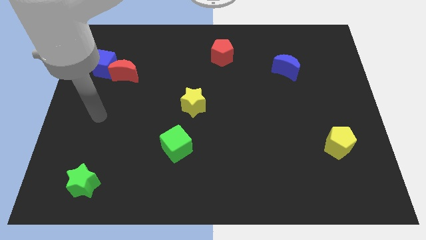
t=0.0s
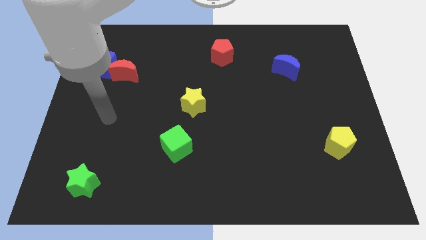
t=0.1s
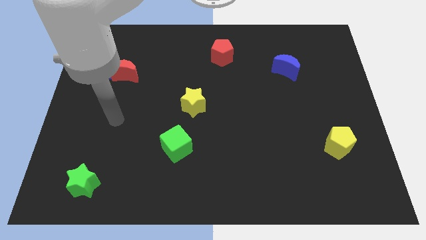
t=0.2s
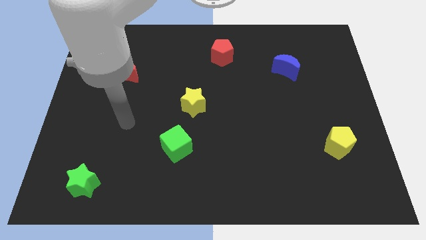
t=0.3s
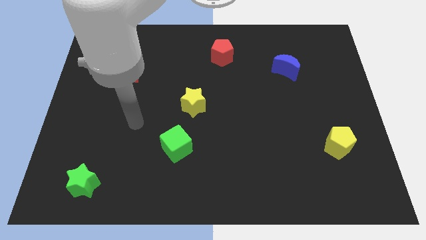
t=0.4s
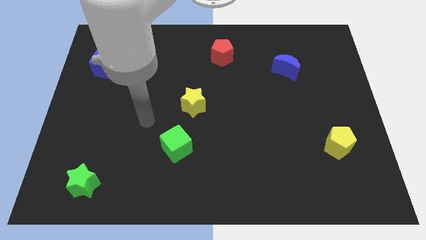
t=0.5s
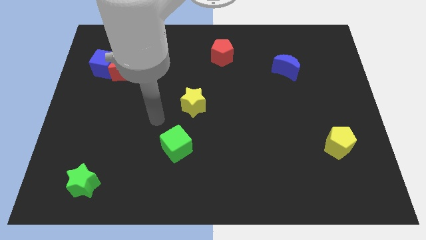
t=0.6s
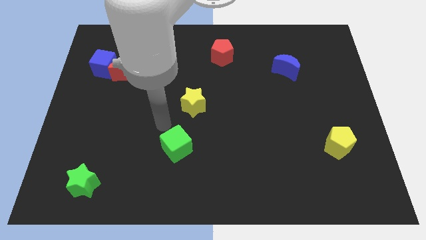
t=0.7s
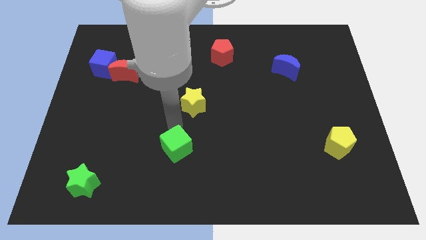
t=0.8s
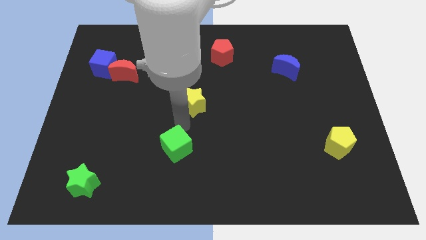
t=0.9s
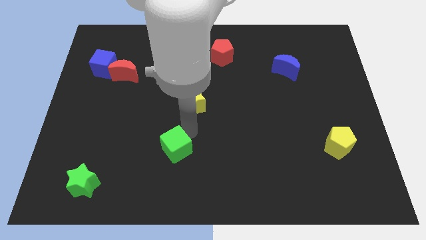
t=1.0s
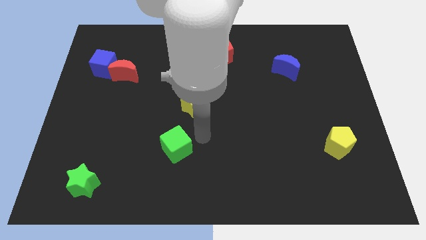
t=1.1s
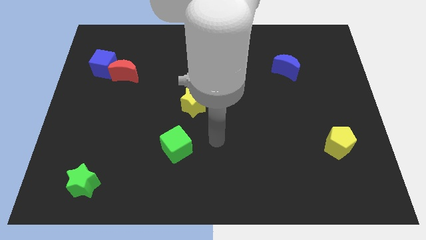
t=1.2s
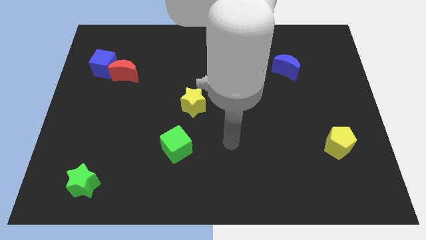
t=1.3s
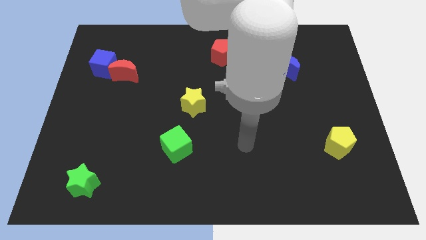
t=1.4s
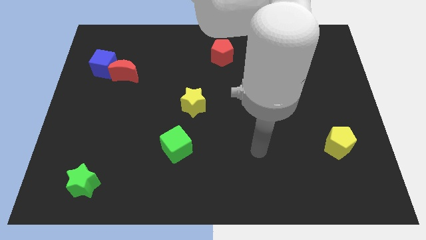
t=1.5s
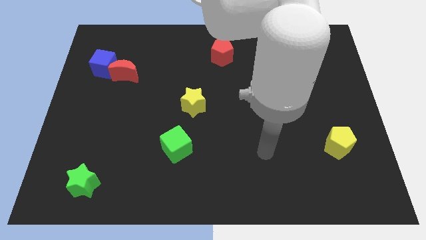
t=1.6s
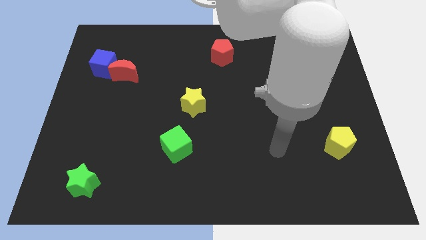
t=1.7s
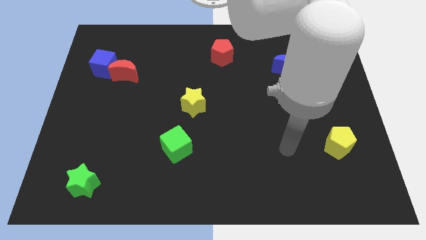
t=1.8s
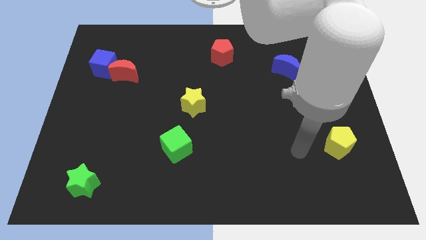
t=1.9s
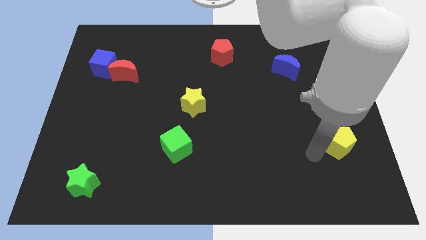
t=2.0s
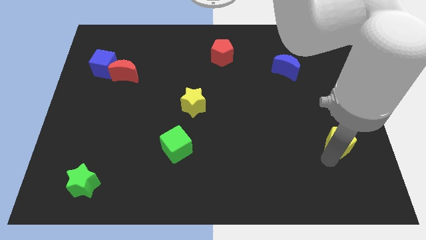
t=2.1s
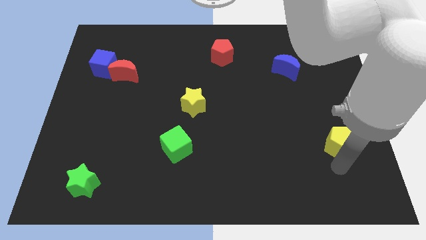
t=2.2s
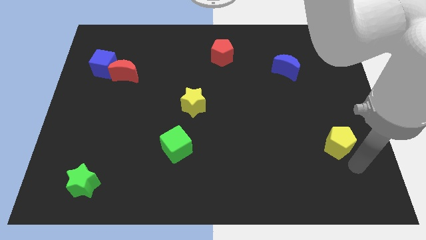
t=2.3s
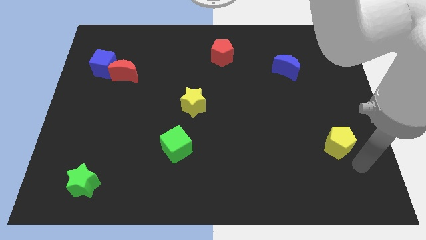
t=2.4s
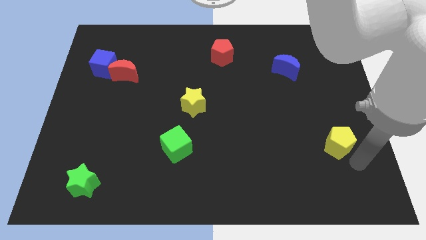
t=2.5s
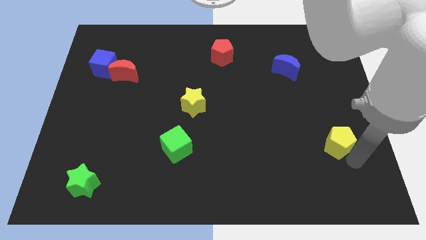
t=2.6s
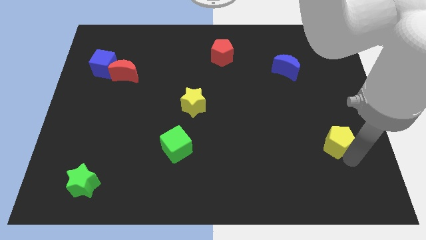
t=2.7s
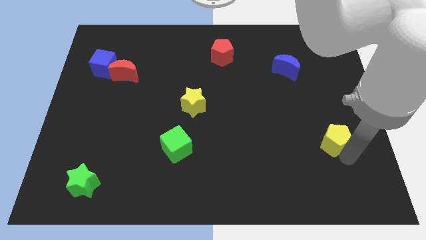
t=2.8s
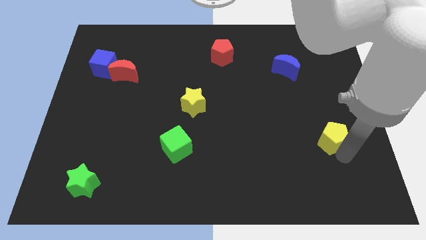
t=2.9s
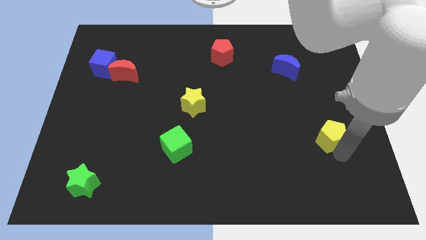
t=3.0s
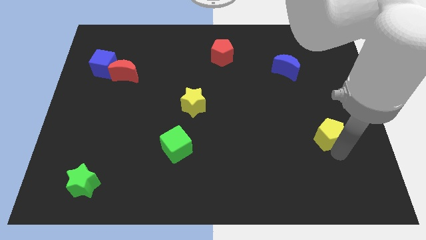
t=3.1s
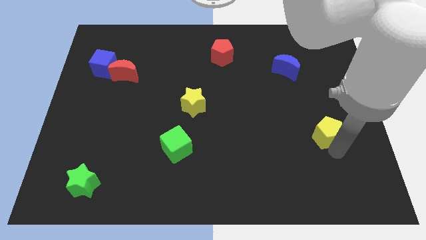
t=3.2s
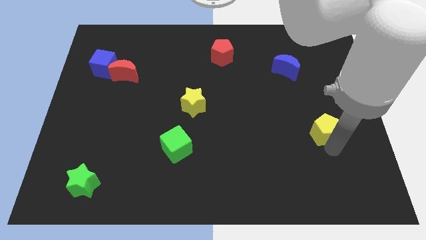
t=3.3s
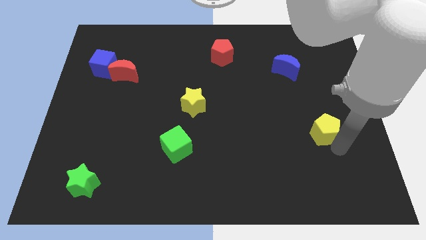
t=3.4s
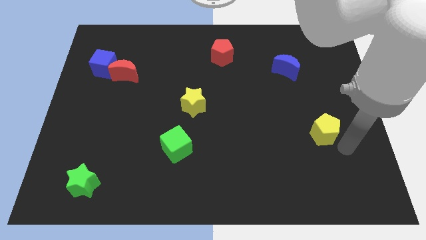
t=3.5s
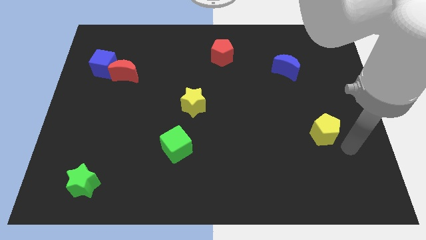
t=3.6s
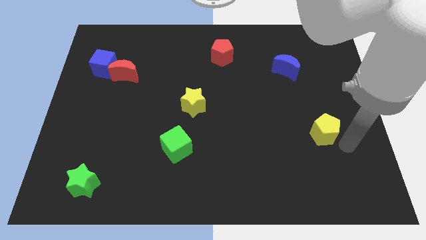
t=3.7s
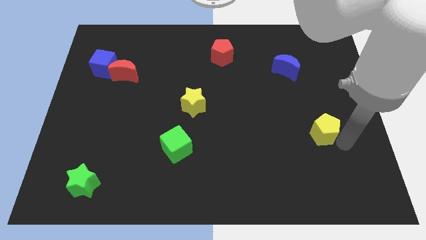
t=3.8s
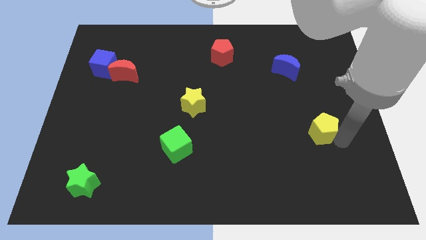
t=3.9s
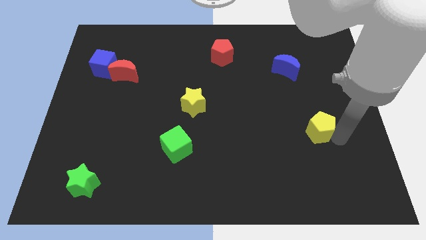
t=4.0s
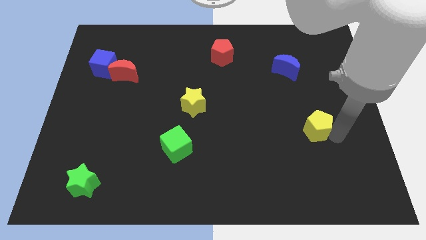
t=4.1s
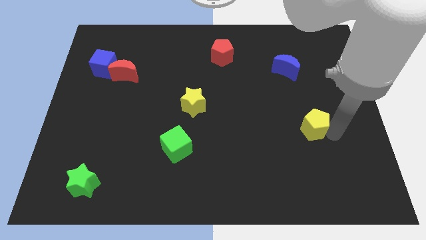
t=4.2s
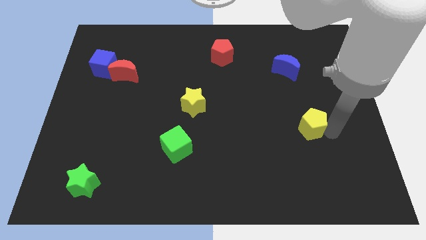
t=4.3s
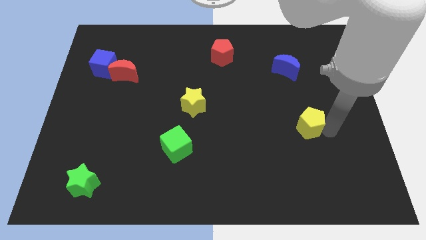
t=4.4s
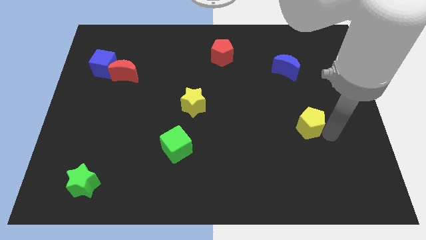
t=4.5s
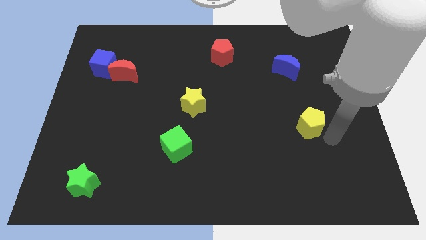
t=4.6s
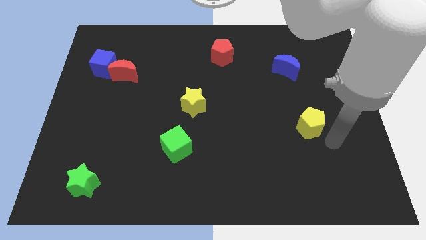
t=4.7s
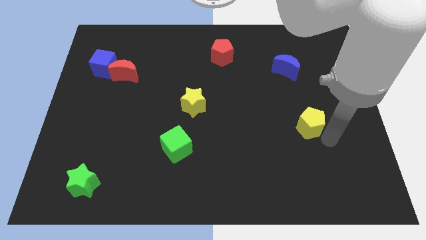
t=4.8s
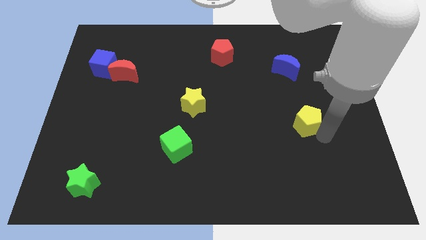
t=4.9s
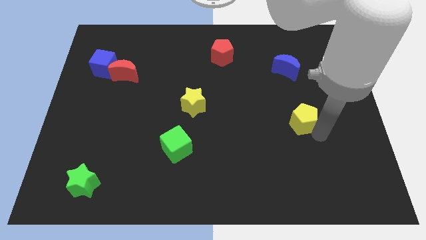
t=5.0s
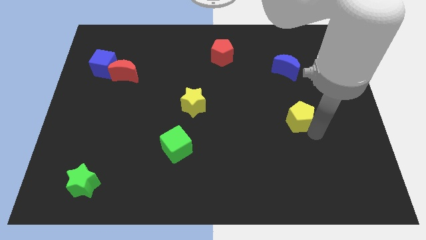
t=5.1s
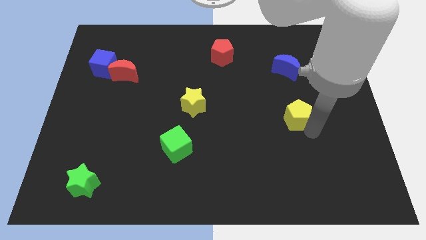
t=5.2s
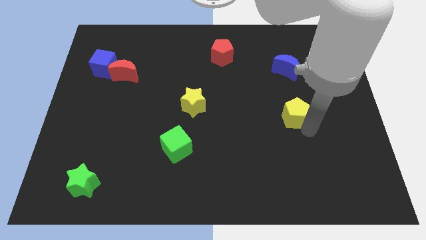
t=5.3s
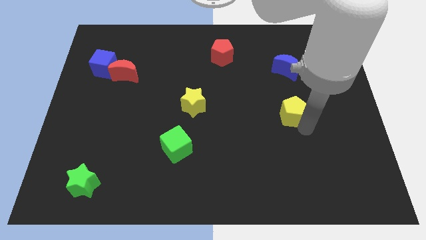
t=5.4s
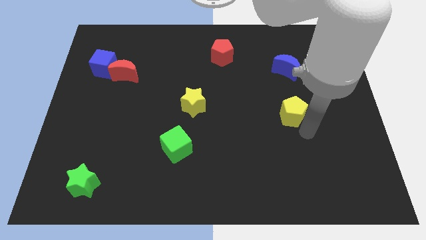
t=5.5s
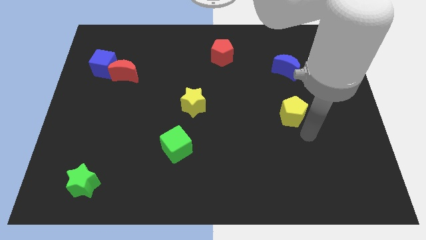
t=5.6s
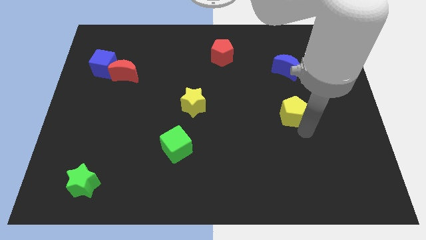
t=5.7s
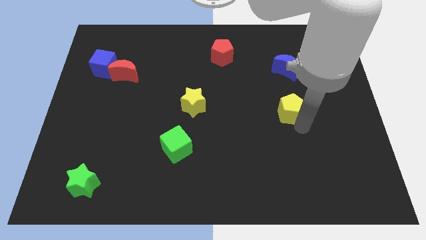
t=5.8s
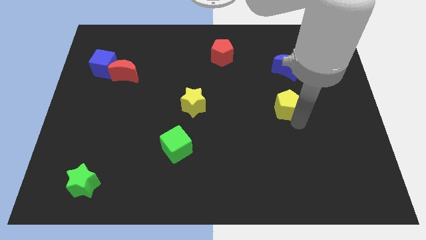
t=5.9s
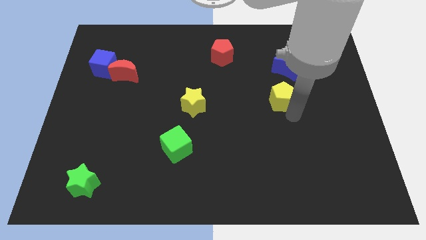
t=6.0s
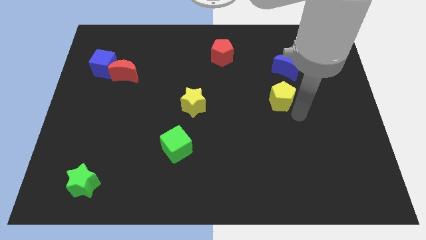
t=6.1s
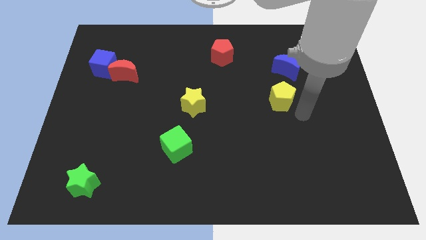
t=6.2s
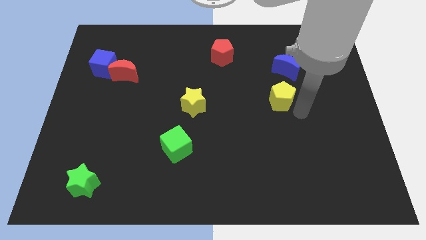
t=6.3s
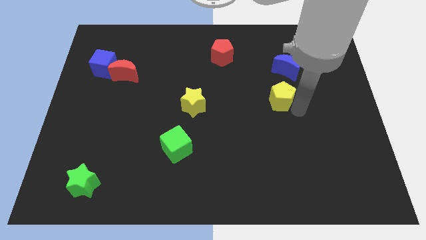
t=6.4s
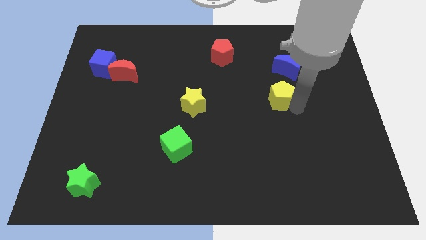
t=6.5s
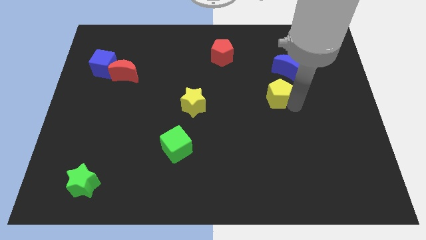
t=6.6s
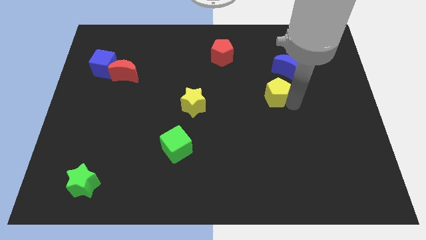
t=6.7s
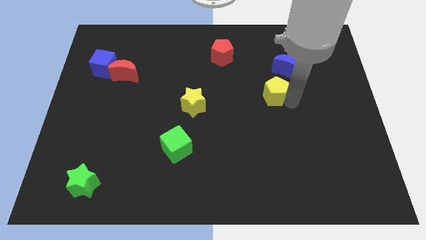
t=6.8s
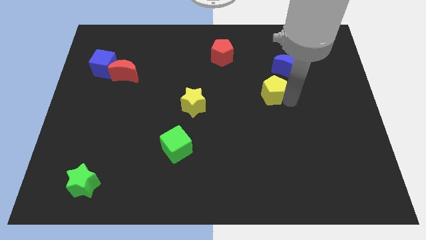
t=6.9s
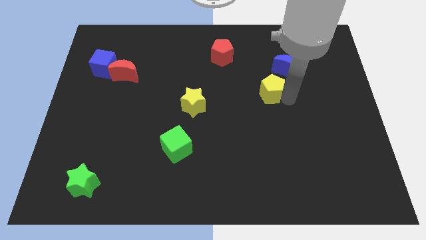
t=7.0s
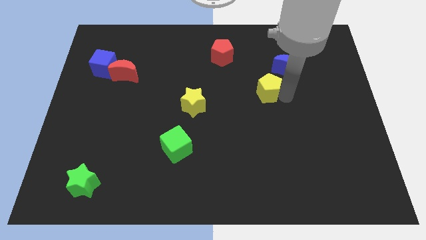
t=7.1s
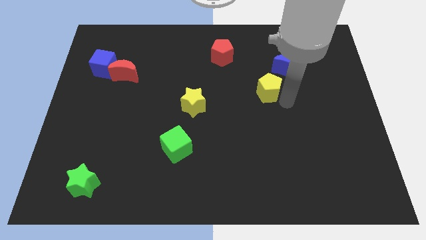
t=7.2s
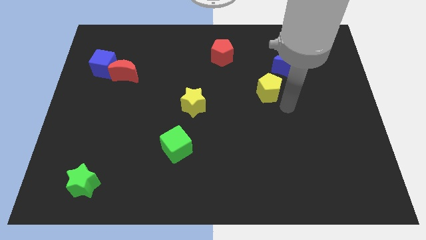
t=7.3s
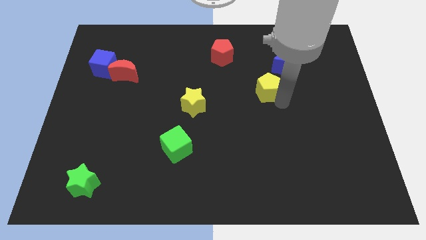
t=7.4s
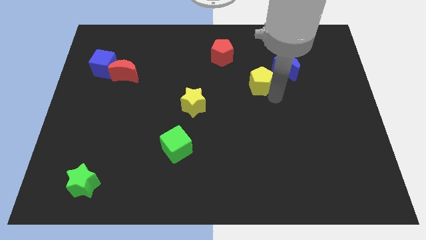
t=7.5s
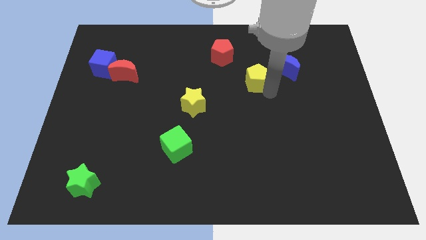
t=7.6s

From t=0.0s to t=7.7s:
move the yellow pentagon to the bottom right side of the red pentagon
